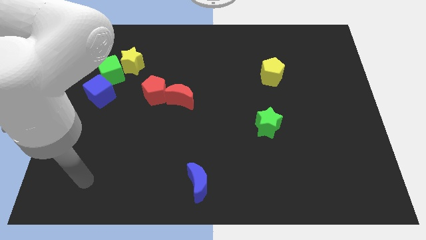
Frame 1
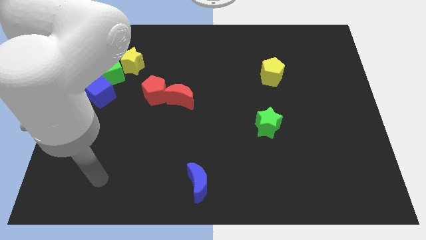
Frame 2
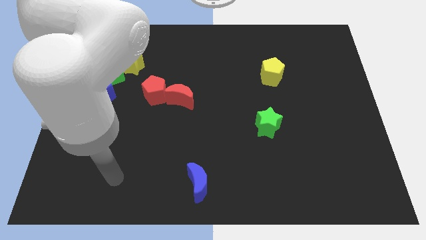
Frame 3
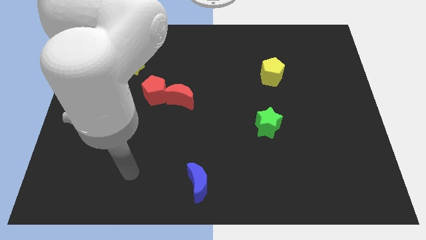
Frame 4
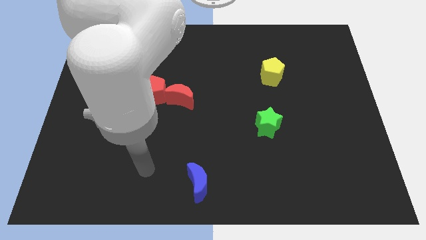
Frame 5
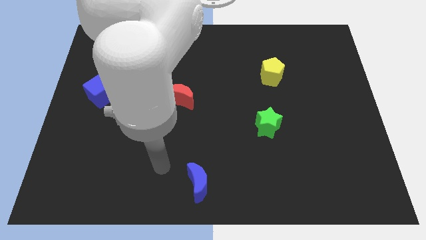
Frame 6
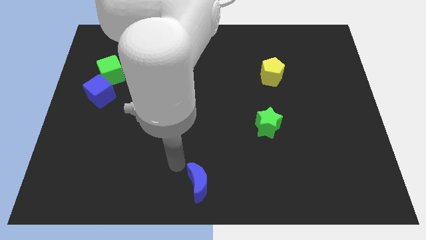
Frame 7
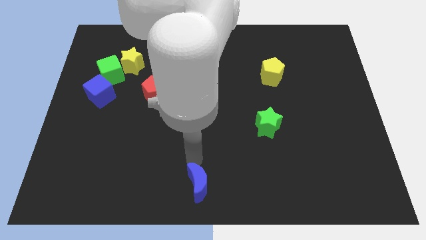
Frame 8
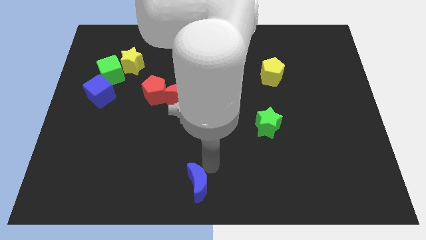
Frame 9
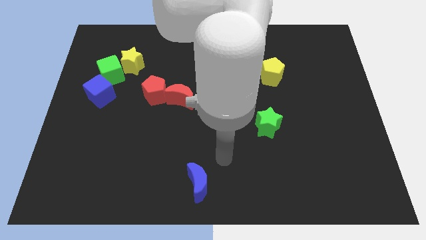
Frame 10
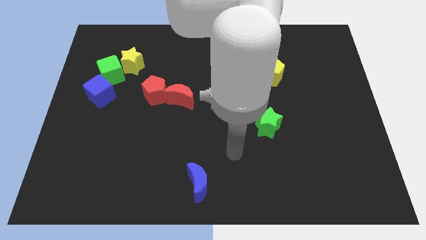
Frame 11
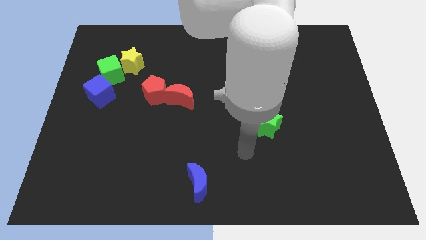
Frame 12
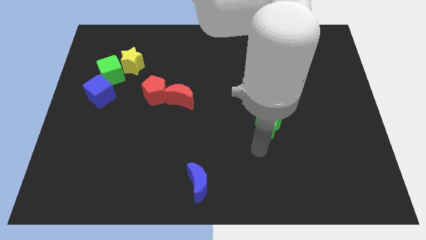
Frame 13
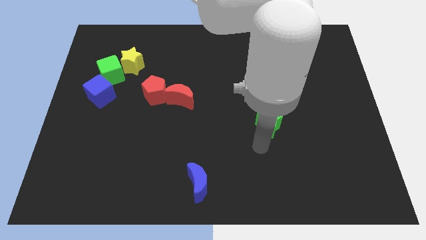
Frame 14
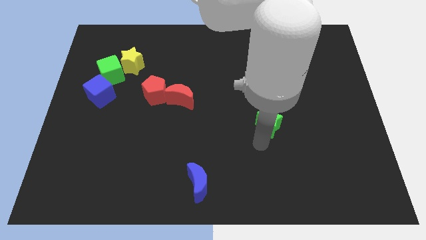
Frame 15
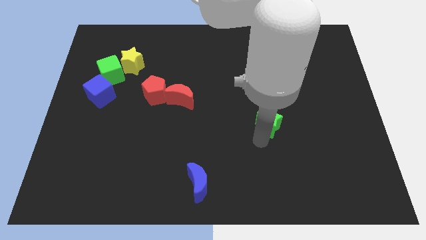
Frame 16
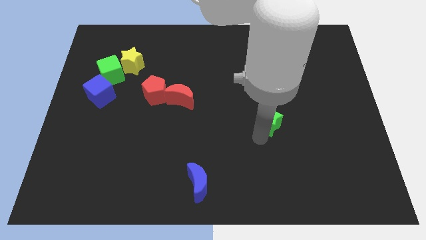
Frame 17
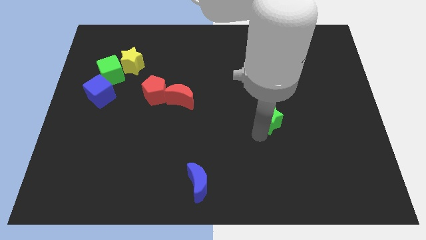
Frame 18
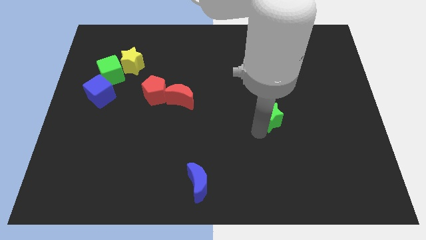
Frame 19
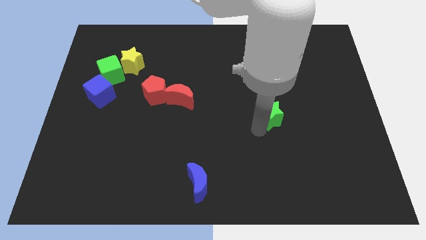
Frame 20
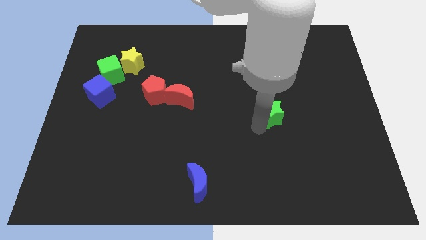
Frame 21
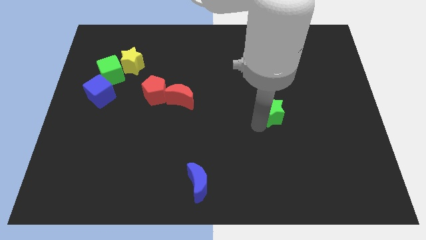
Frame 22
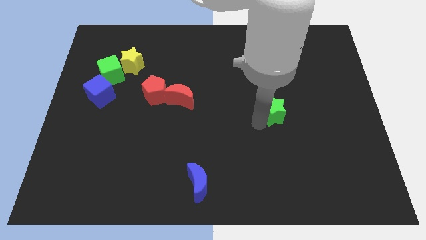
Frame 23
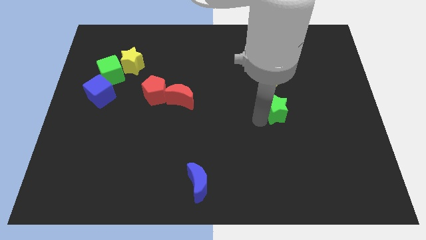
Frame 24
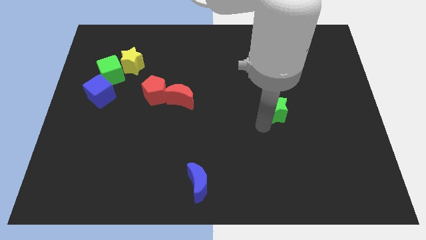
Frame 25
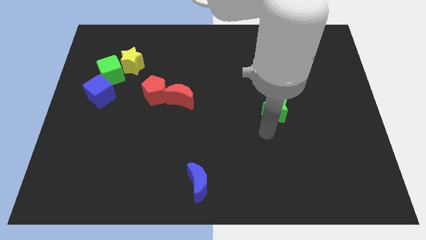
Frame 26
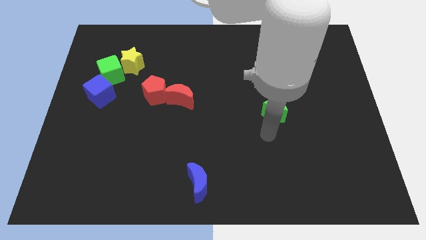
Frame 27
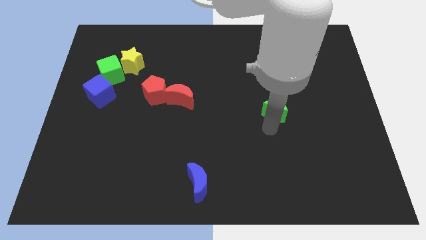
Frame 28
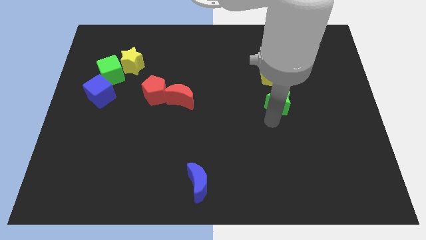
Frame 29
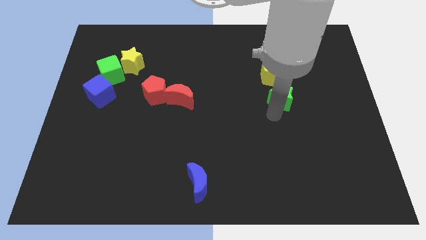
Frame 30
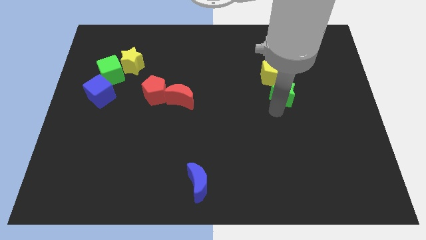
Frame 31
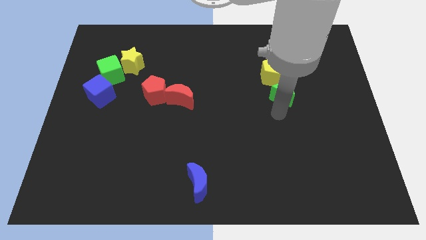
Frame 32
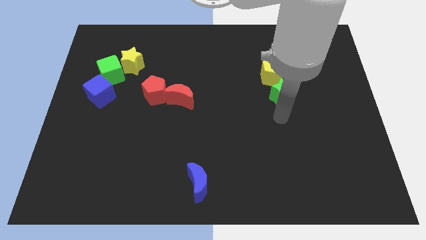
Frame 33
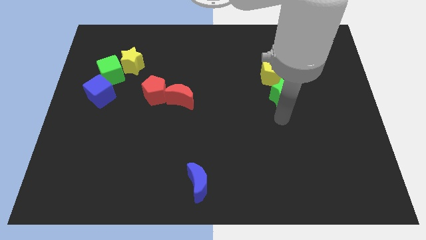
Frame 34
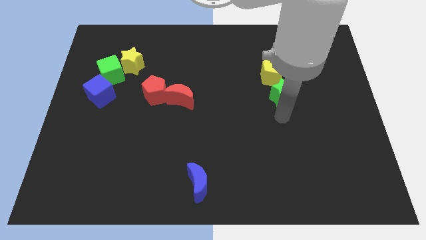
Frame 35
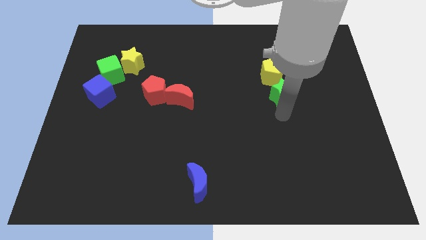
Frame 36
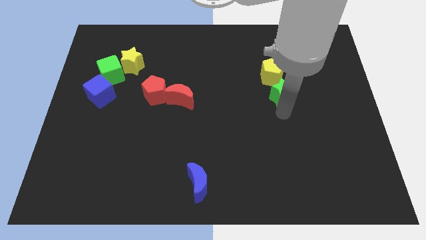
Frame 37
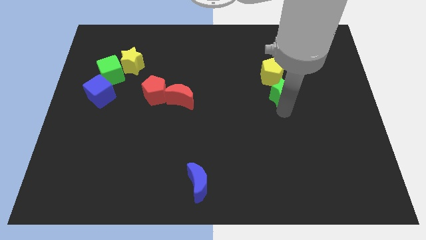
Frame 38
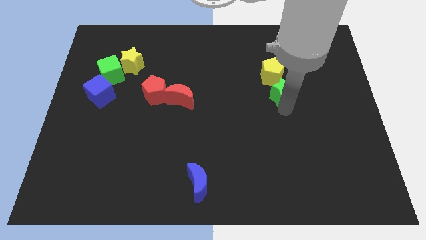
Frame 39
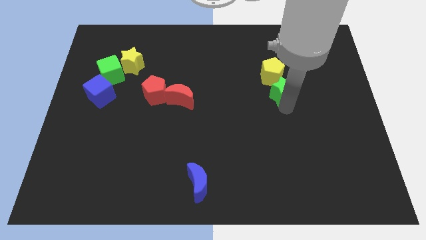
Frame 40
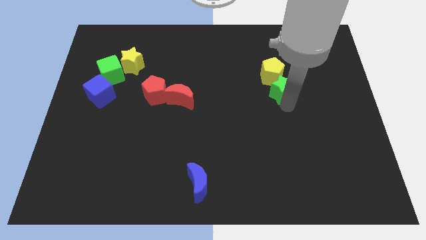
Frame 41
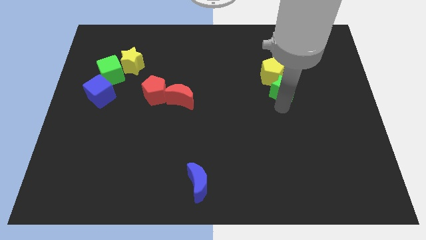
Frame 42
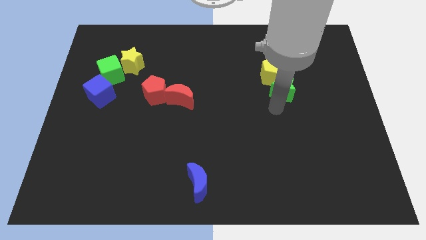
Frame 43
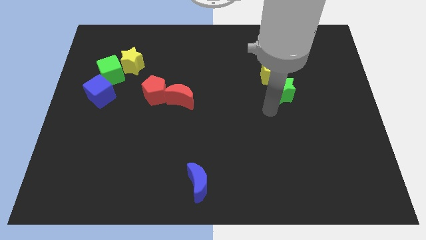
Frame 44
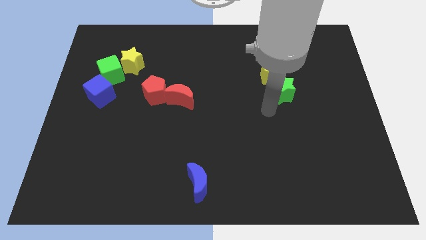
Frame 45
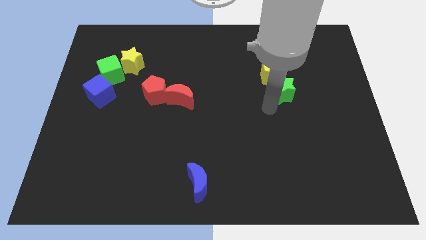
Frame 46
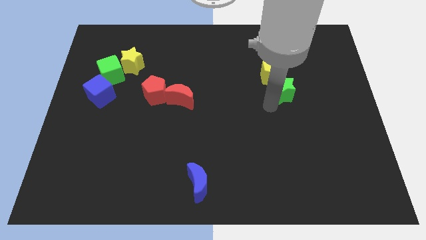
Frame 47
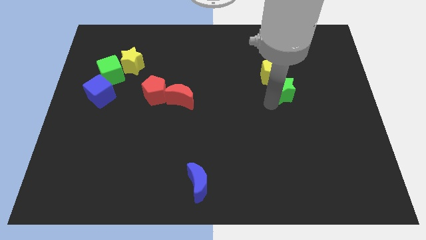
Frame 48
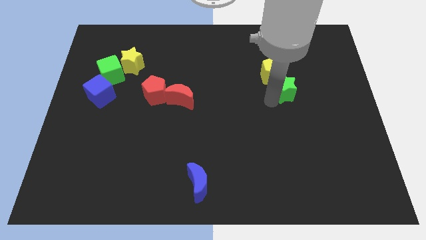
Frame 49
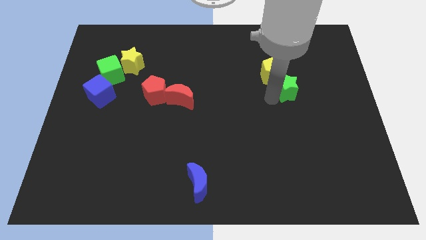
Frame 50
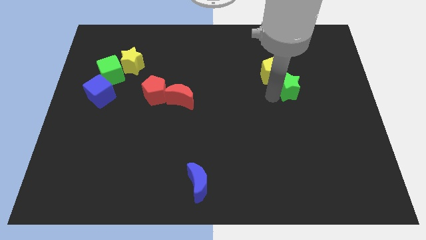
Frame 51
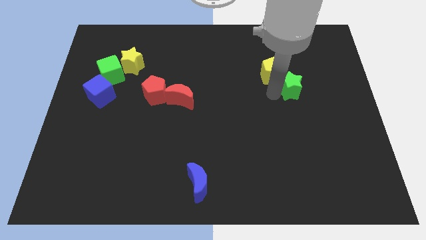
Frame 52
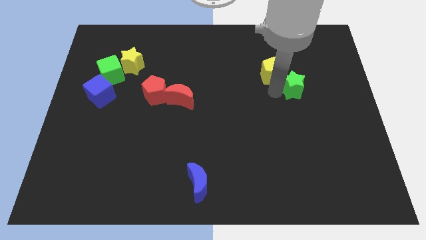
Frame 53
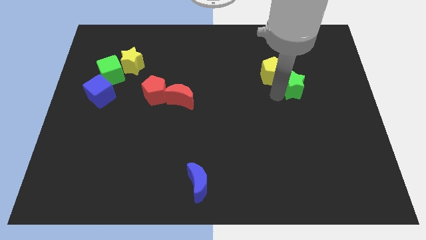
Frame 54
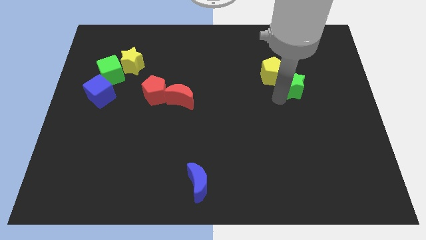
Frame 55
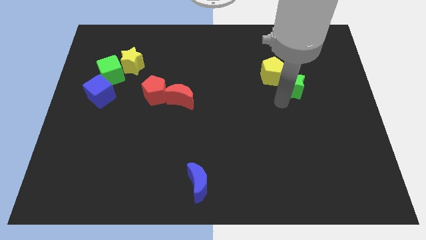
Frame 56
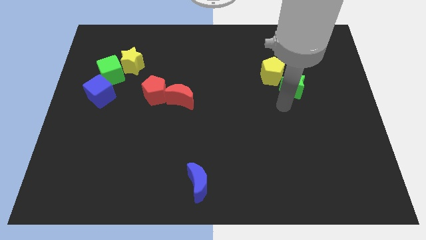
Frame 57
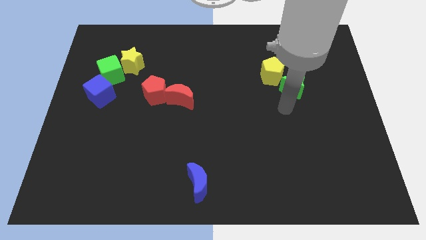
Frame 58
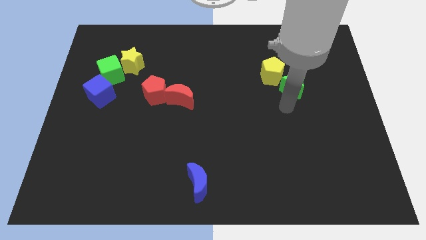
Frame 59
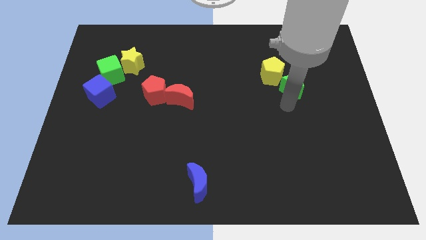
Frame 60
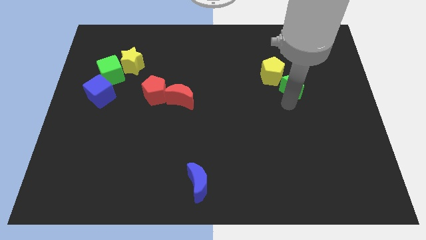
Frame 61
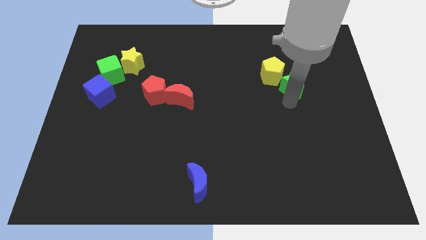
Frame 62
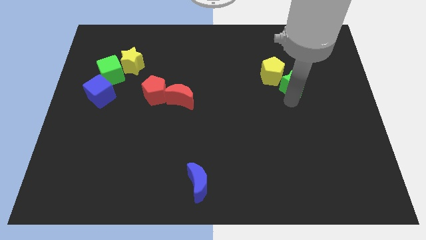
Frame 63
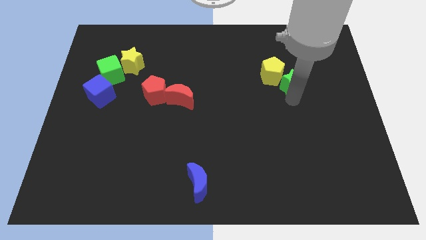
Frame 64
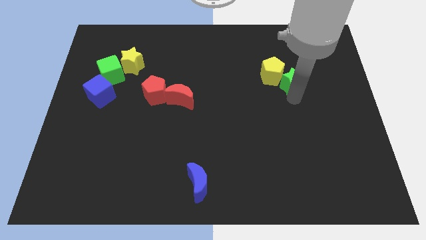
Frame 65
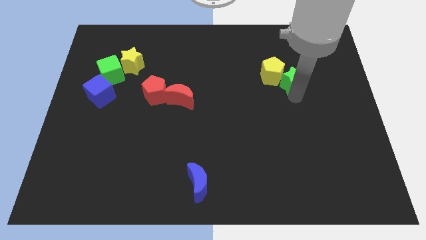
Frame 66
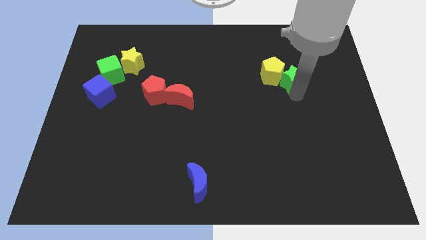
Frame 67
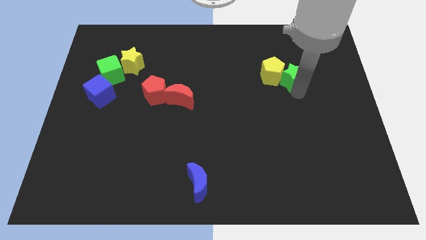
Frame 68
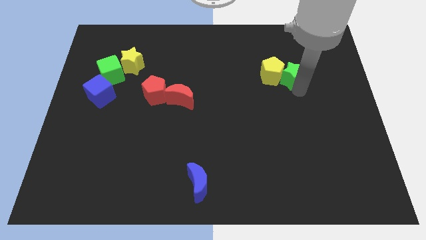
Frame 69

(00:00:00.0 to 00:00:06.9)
move the green star to the top right side of the yellow pentagon
